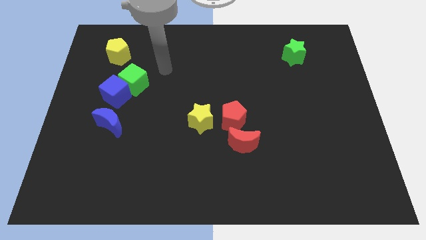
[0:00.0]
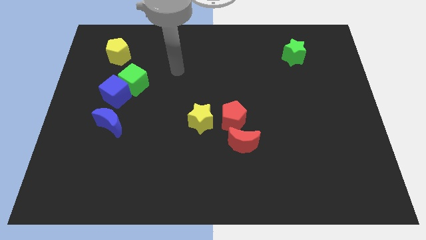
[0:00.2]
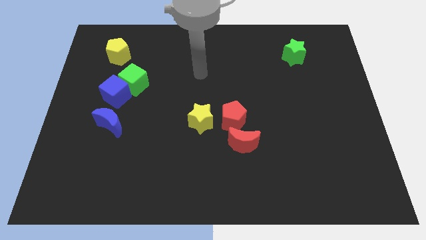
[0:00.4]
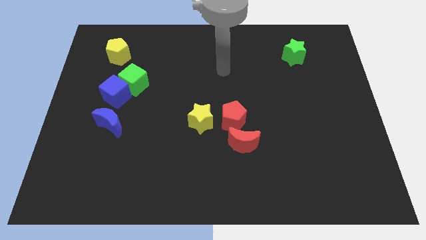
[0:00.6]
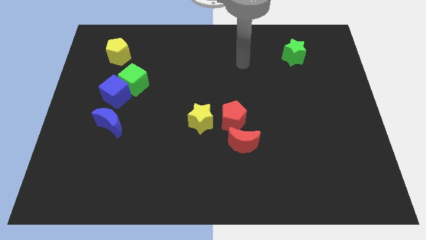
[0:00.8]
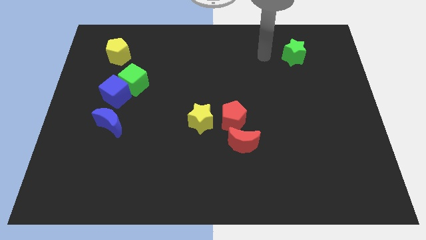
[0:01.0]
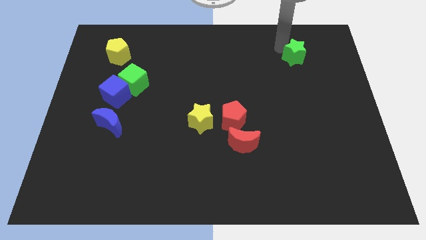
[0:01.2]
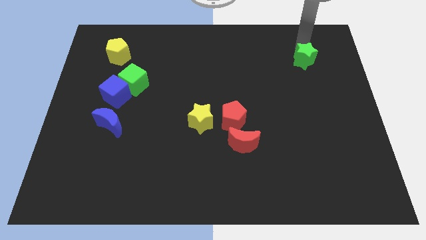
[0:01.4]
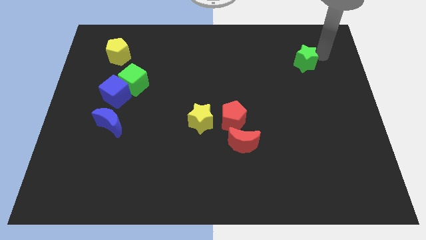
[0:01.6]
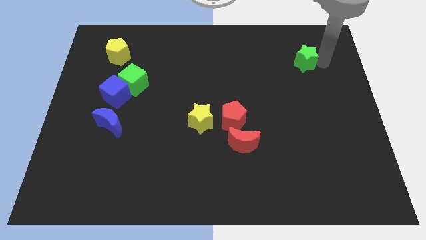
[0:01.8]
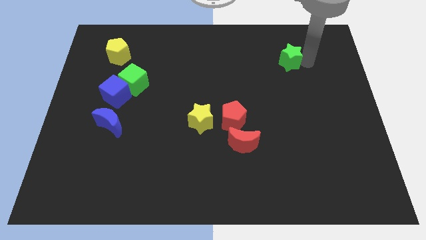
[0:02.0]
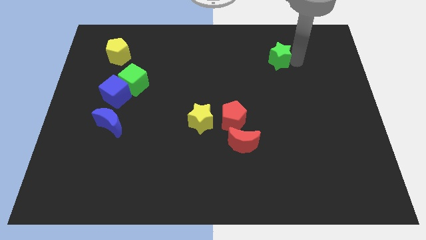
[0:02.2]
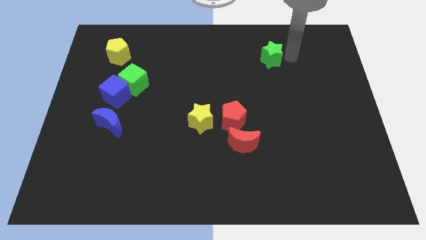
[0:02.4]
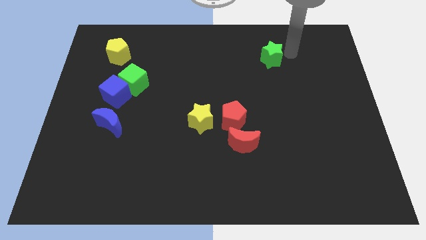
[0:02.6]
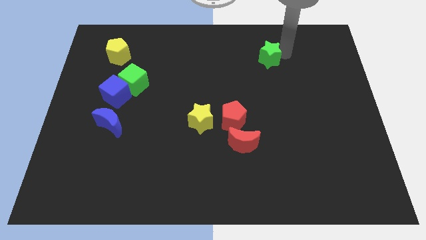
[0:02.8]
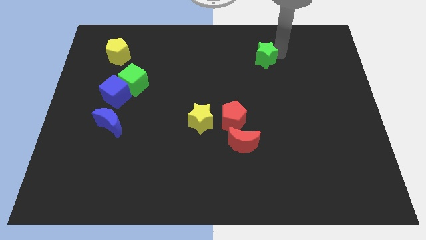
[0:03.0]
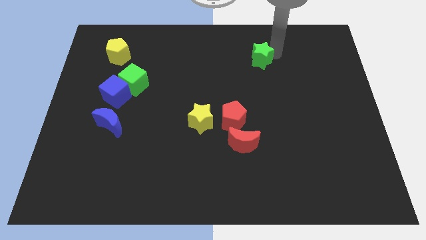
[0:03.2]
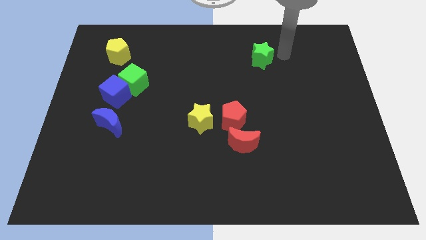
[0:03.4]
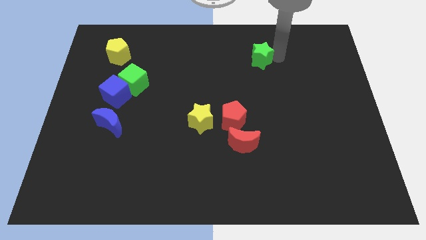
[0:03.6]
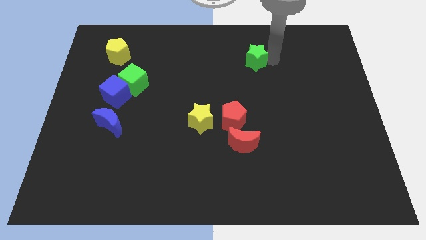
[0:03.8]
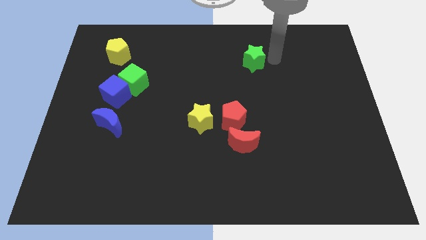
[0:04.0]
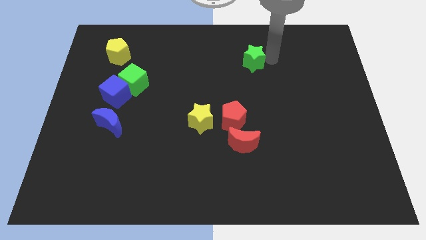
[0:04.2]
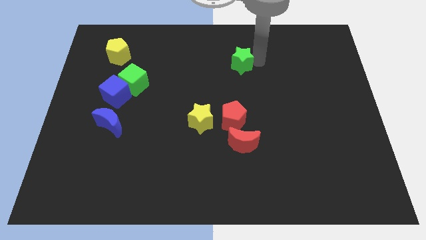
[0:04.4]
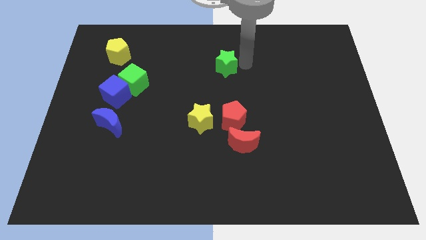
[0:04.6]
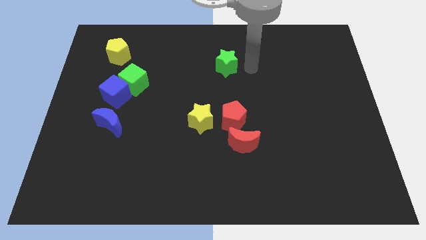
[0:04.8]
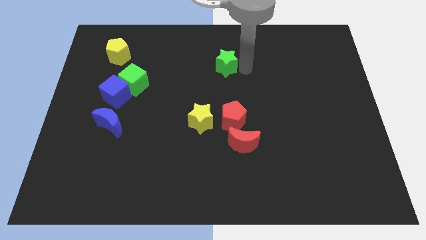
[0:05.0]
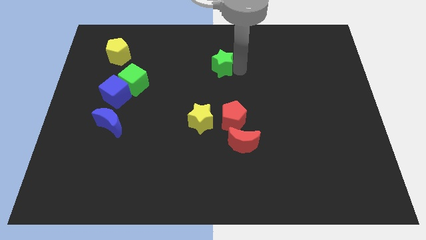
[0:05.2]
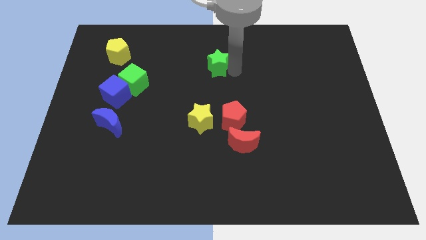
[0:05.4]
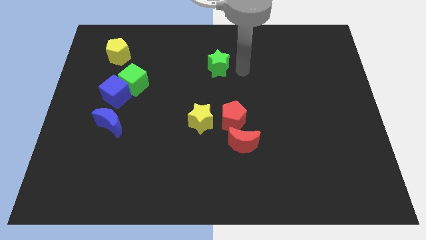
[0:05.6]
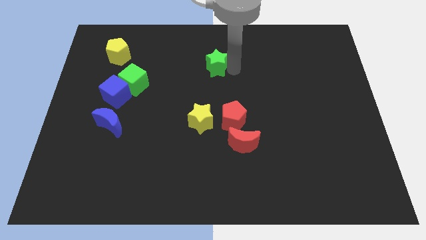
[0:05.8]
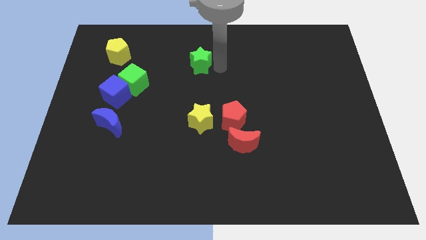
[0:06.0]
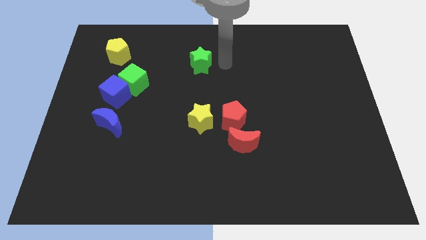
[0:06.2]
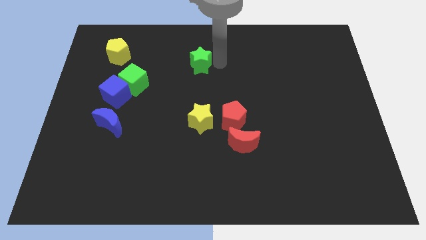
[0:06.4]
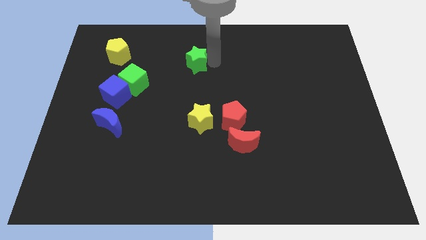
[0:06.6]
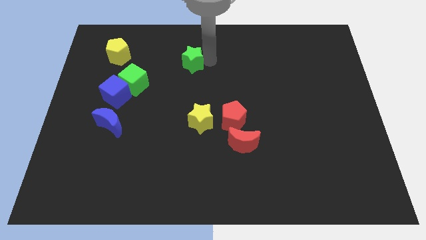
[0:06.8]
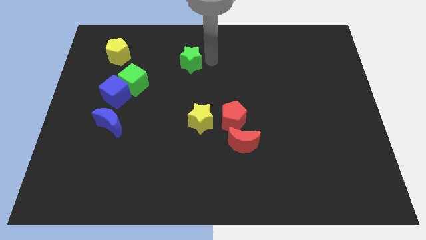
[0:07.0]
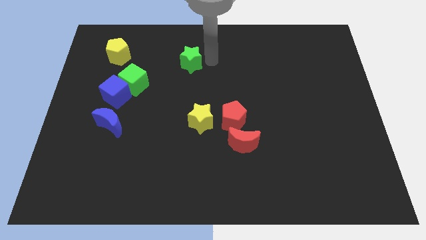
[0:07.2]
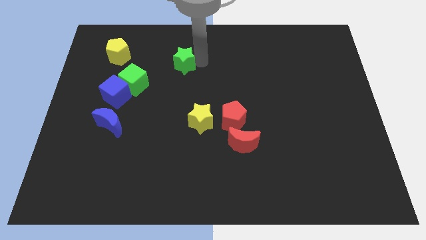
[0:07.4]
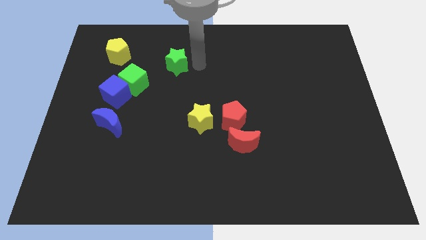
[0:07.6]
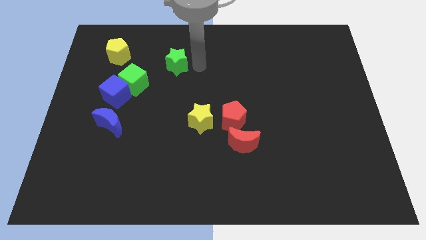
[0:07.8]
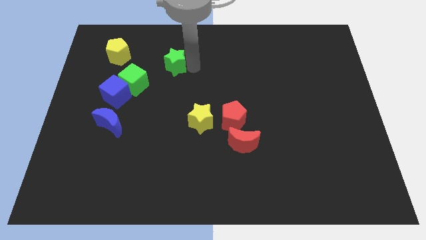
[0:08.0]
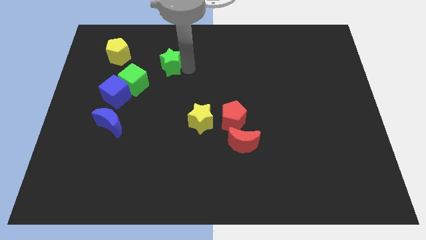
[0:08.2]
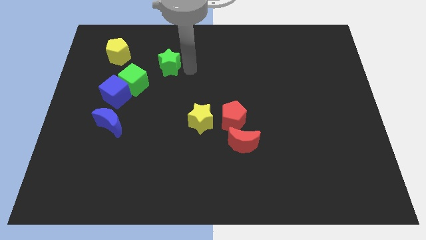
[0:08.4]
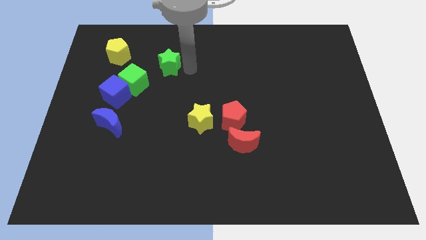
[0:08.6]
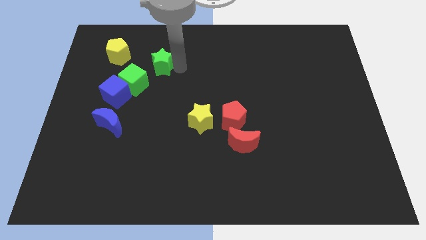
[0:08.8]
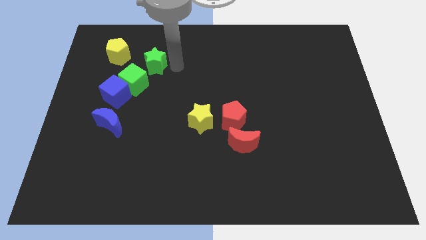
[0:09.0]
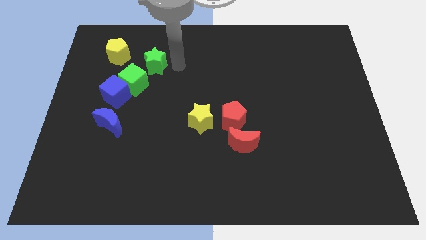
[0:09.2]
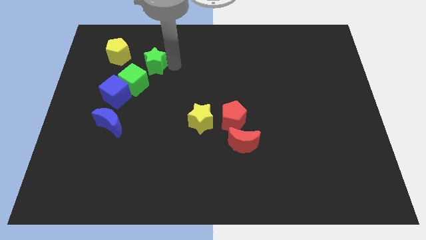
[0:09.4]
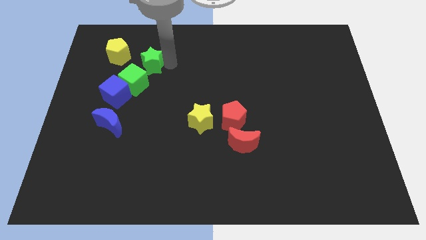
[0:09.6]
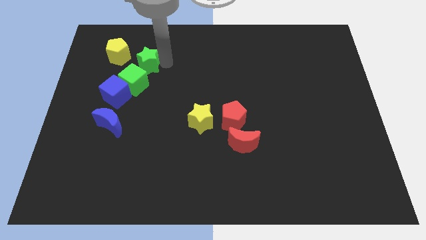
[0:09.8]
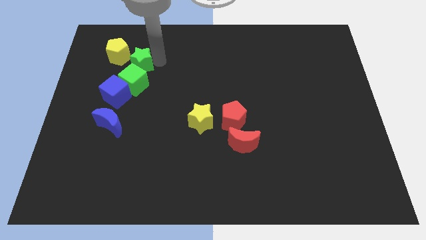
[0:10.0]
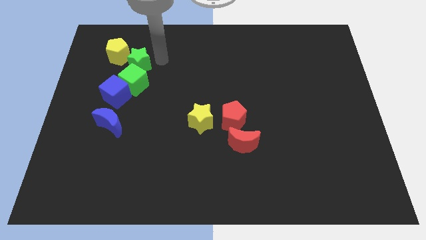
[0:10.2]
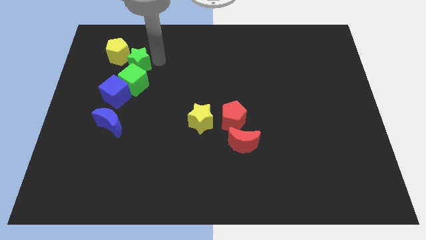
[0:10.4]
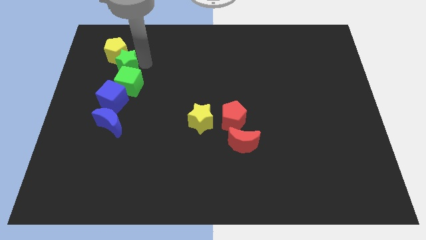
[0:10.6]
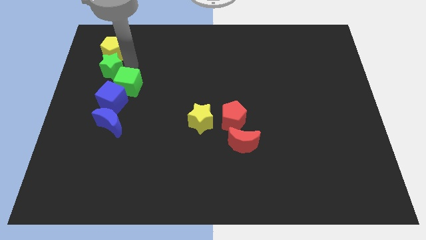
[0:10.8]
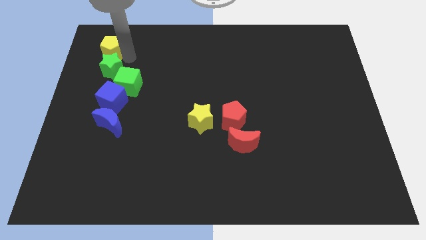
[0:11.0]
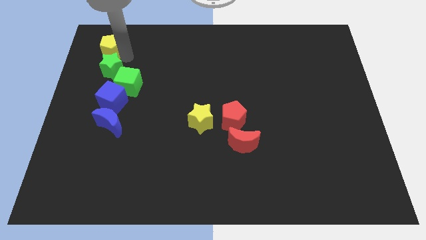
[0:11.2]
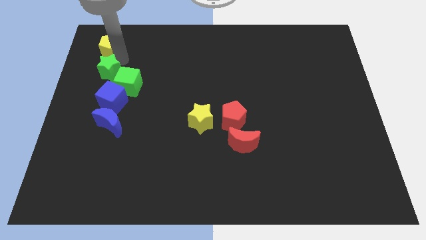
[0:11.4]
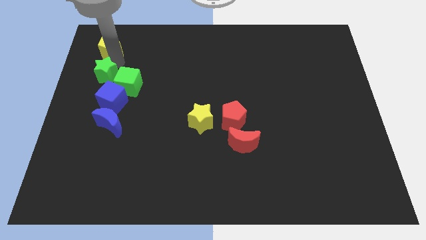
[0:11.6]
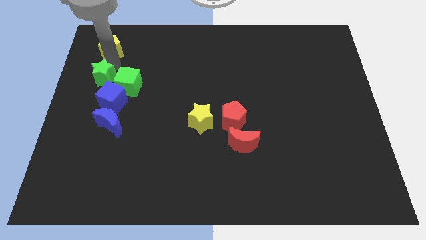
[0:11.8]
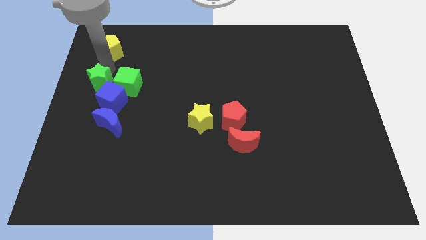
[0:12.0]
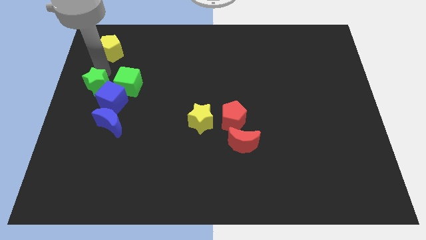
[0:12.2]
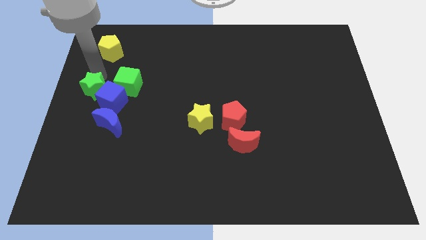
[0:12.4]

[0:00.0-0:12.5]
move the green star to the top left side of the blue moon

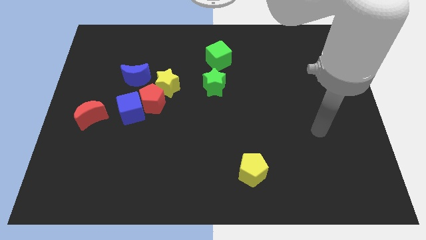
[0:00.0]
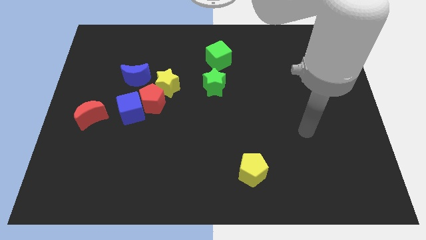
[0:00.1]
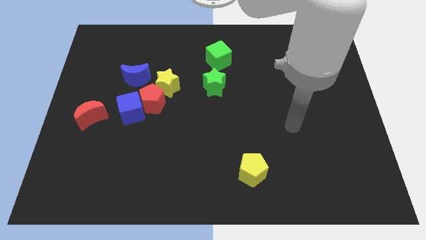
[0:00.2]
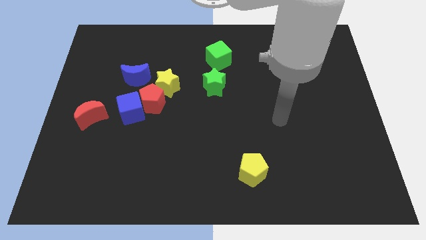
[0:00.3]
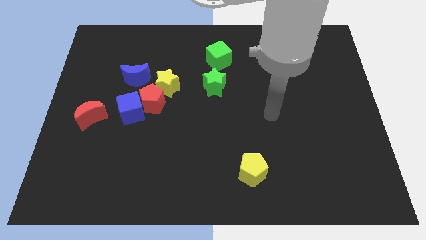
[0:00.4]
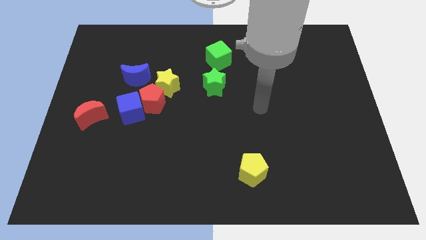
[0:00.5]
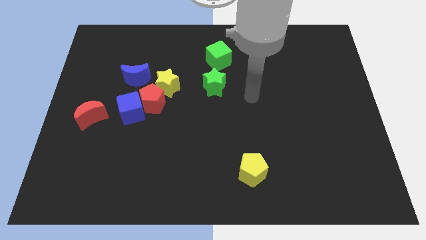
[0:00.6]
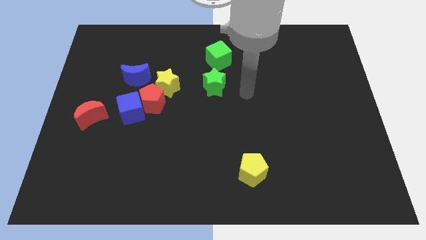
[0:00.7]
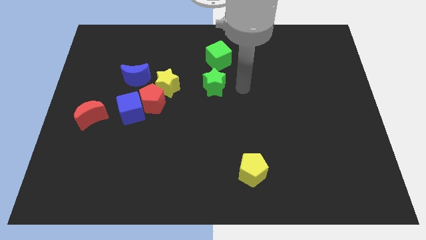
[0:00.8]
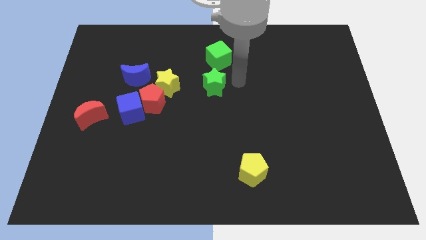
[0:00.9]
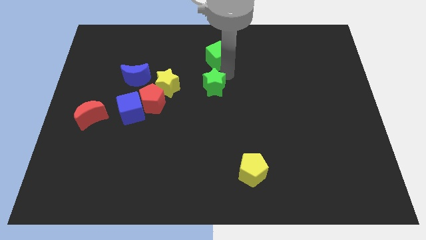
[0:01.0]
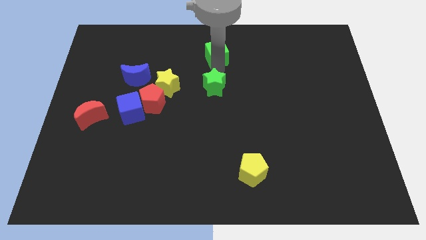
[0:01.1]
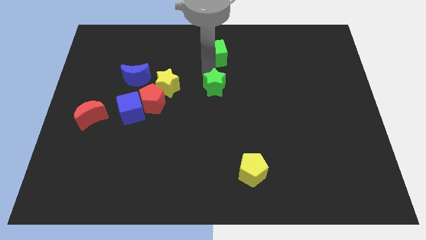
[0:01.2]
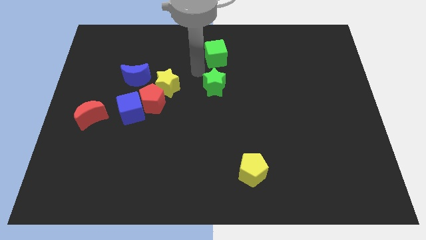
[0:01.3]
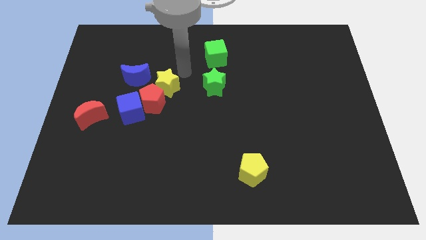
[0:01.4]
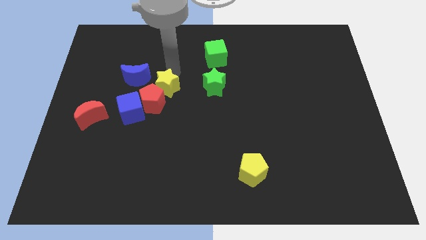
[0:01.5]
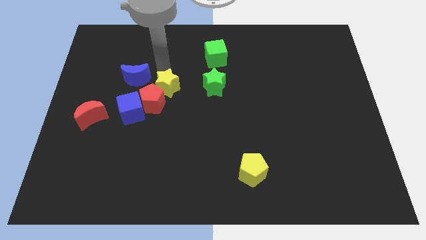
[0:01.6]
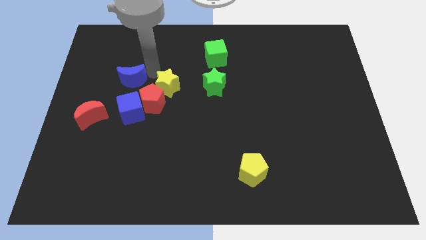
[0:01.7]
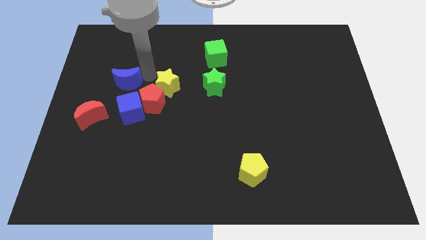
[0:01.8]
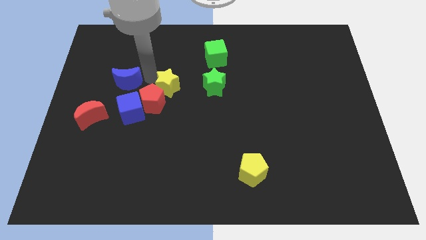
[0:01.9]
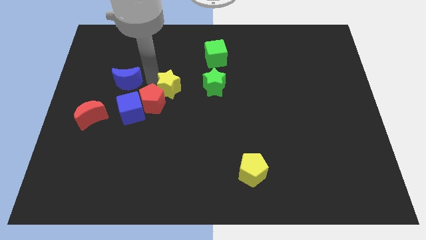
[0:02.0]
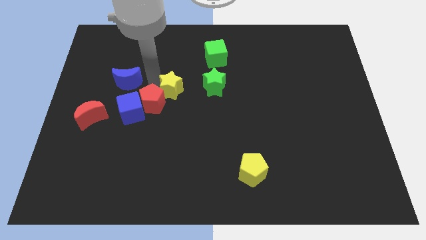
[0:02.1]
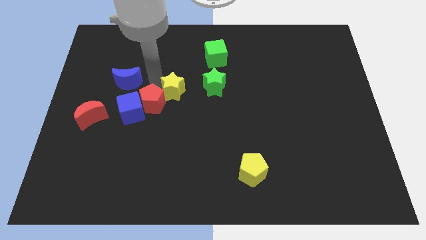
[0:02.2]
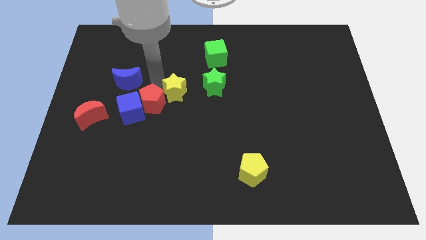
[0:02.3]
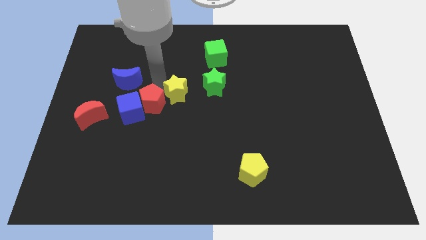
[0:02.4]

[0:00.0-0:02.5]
slide the yellow star diagonally down and to the left of the green star

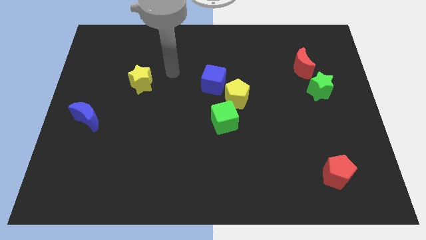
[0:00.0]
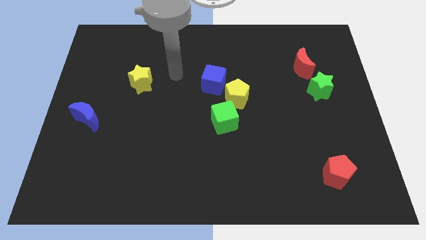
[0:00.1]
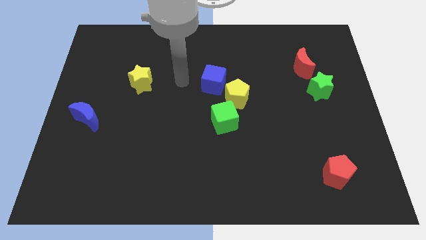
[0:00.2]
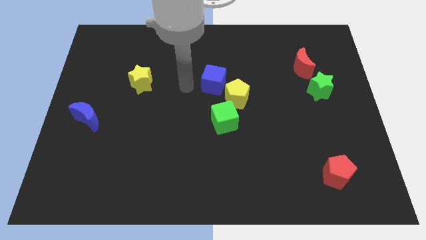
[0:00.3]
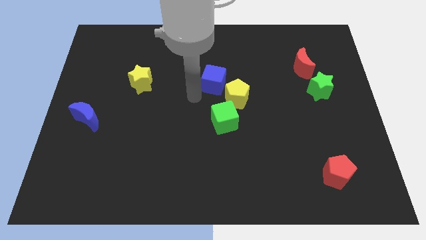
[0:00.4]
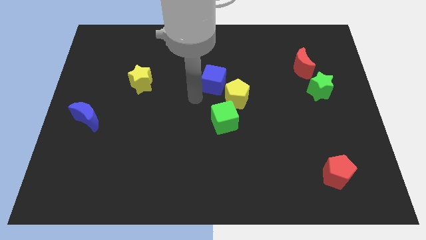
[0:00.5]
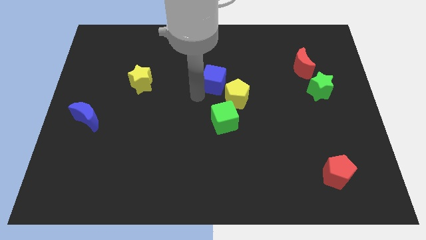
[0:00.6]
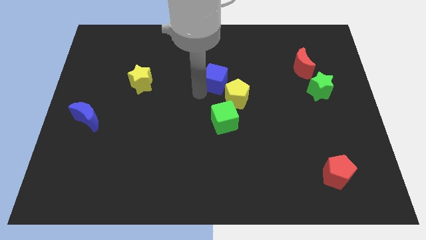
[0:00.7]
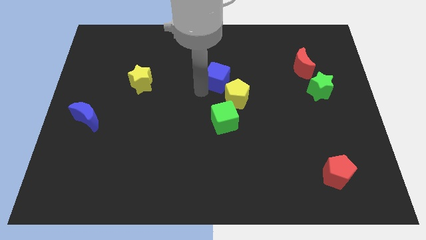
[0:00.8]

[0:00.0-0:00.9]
push the blue cube to the top of the yellow pentagon
